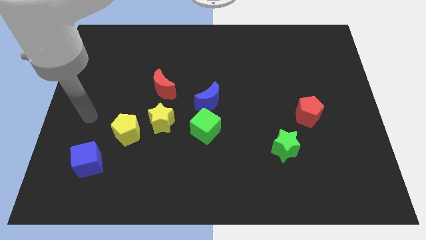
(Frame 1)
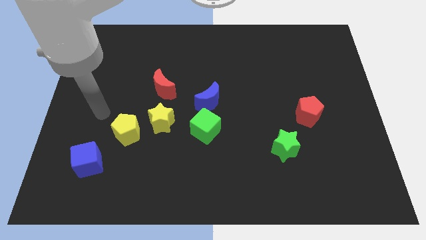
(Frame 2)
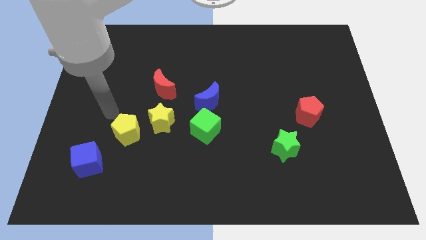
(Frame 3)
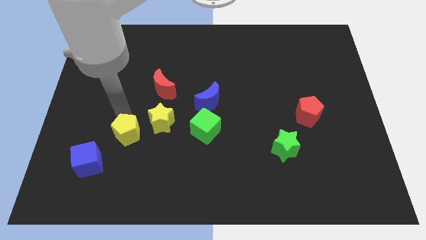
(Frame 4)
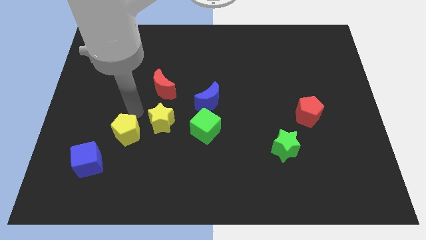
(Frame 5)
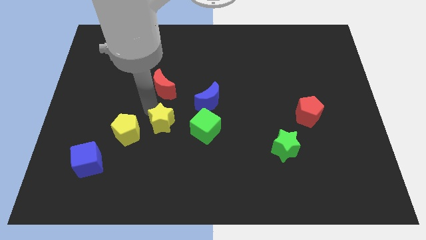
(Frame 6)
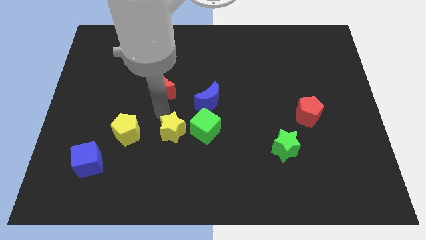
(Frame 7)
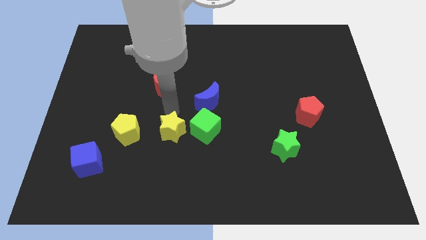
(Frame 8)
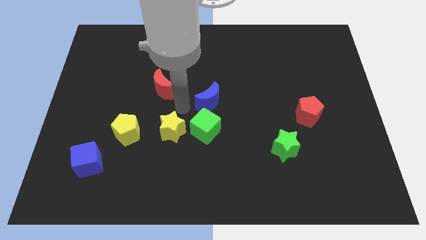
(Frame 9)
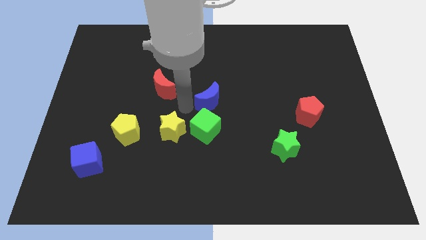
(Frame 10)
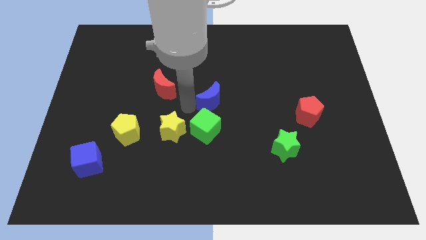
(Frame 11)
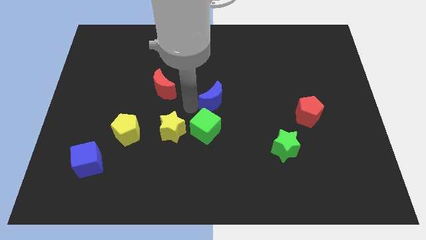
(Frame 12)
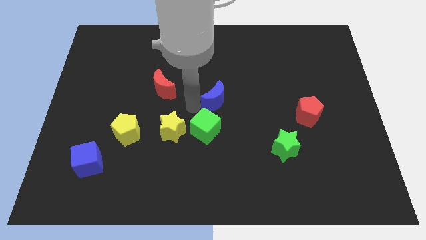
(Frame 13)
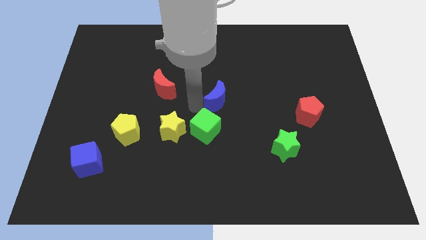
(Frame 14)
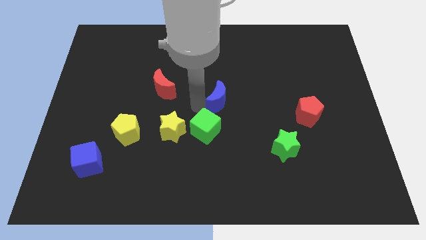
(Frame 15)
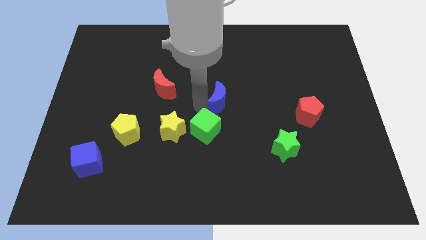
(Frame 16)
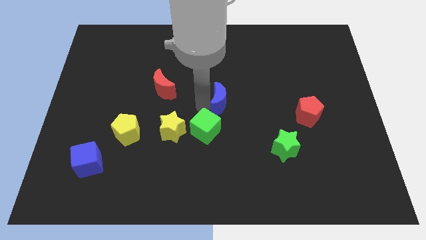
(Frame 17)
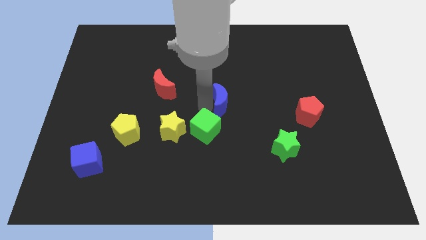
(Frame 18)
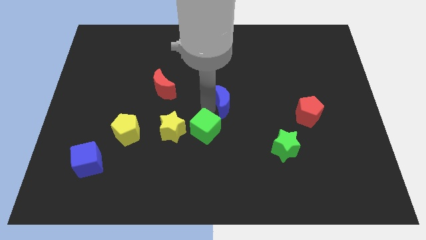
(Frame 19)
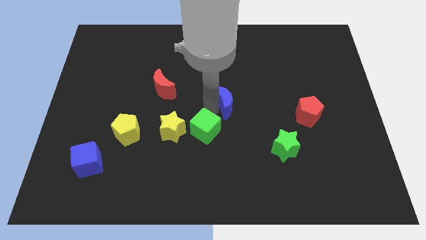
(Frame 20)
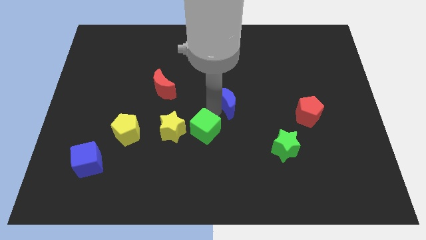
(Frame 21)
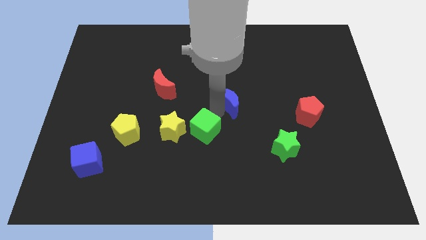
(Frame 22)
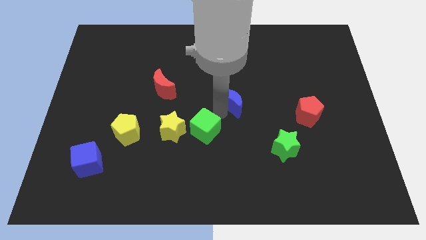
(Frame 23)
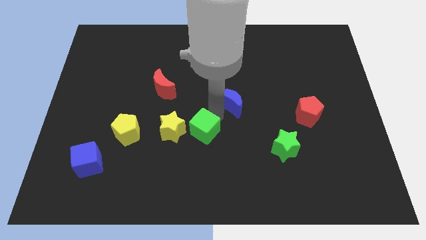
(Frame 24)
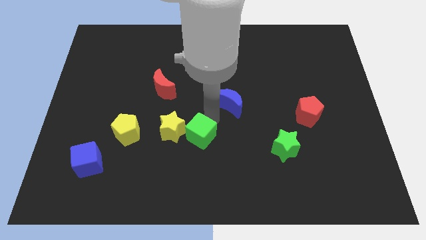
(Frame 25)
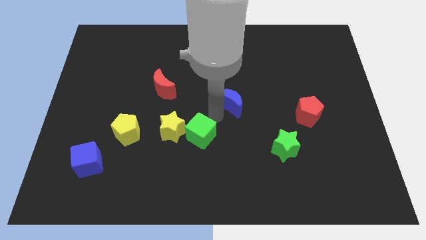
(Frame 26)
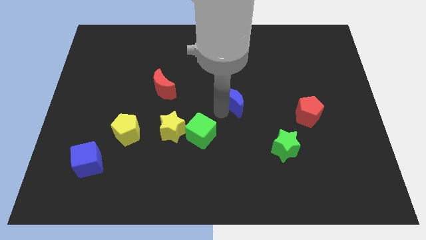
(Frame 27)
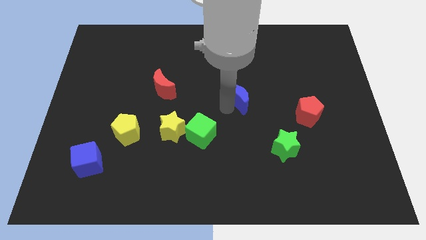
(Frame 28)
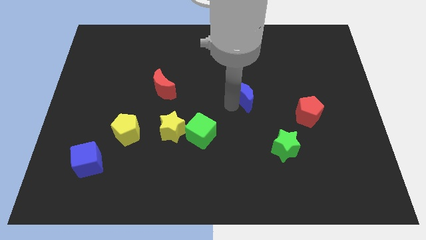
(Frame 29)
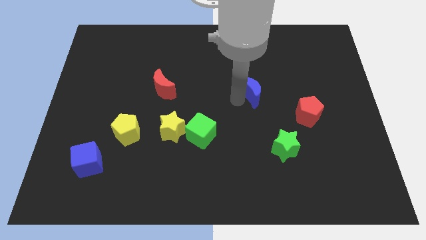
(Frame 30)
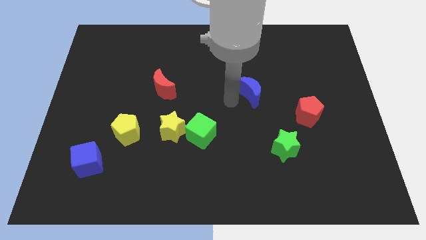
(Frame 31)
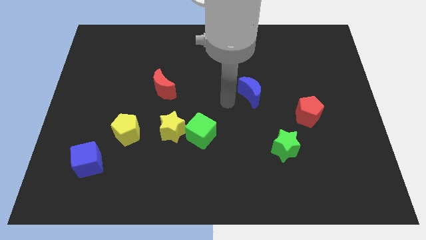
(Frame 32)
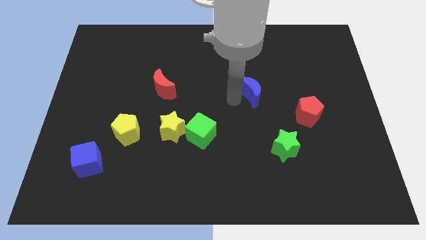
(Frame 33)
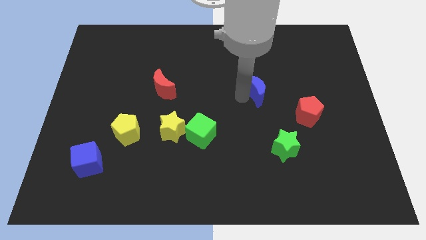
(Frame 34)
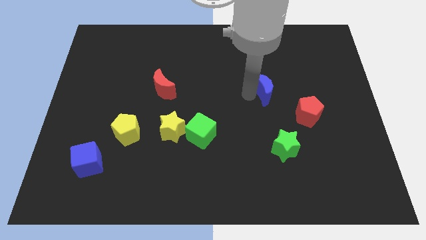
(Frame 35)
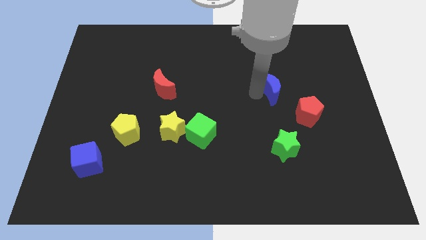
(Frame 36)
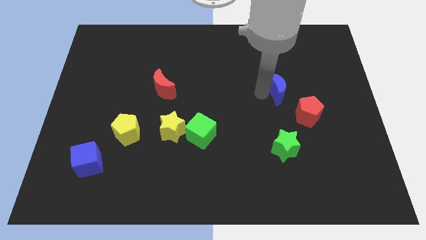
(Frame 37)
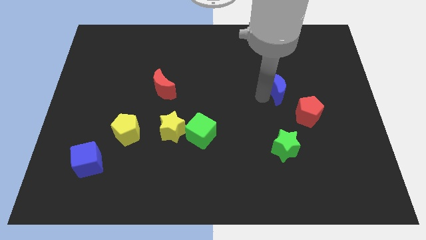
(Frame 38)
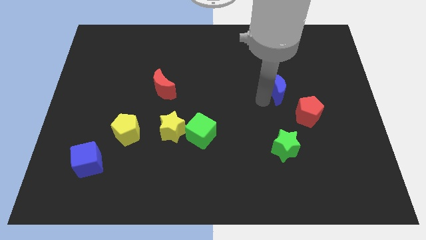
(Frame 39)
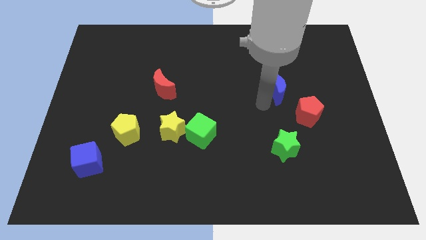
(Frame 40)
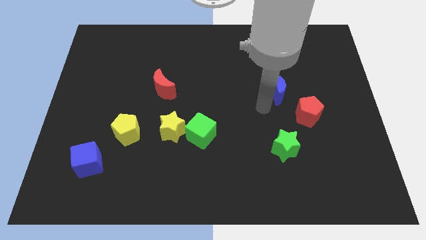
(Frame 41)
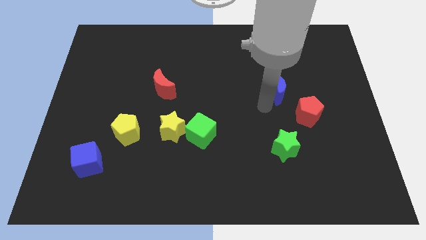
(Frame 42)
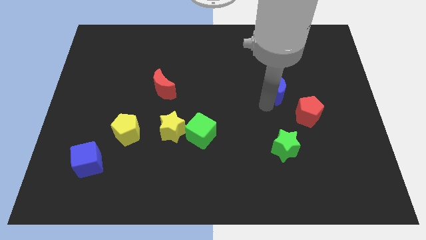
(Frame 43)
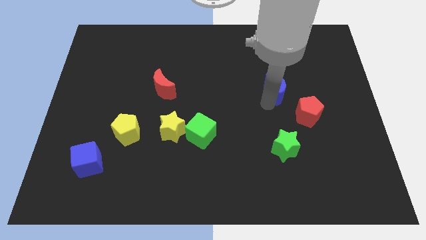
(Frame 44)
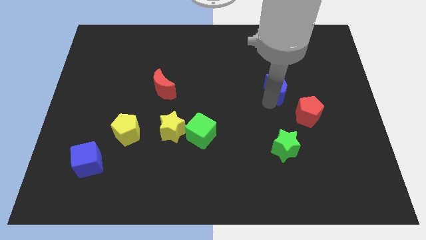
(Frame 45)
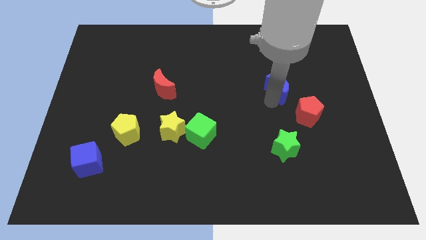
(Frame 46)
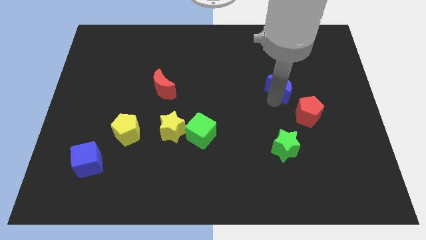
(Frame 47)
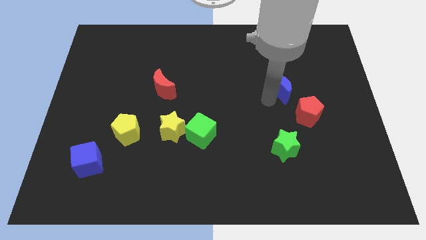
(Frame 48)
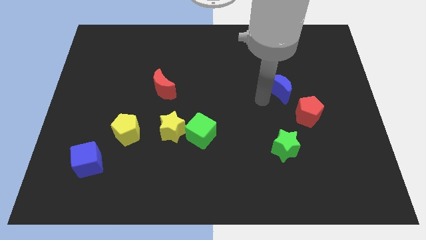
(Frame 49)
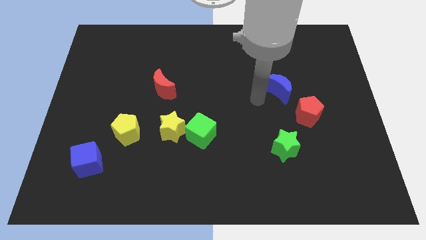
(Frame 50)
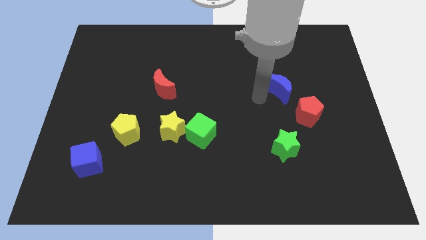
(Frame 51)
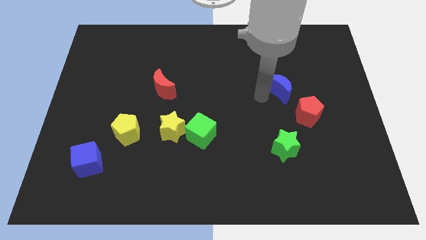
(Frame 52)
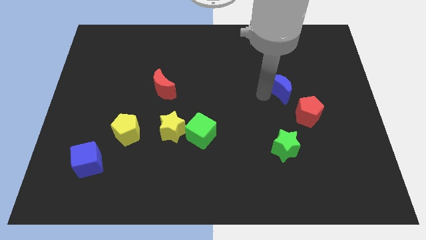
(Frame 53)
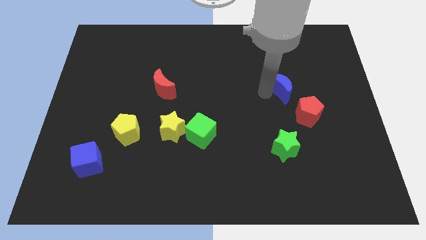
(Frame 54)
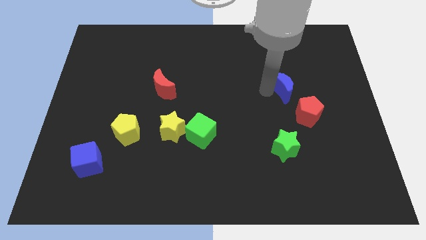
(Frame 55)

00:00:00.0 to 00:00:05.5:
slide the blue moon to the top of the red pentagon

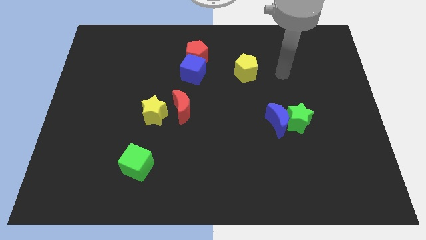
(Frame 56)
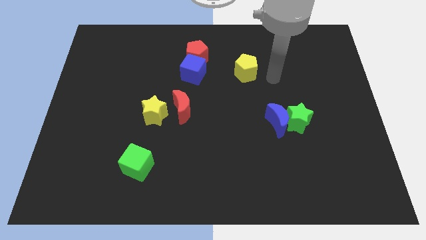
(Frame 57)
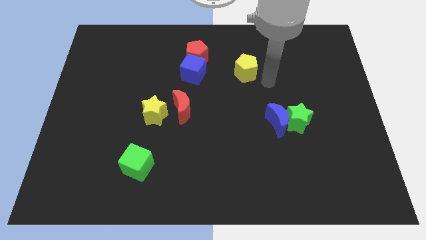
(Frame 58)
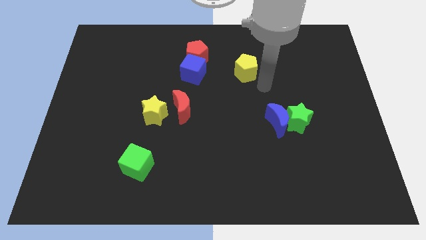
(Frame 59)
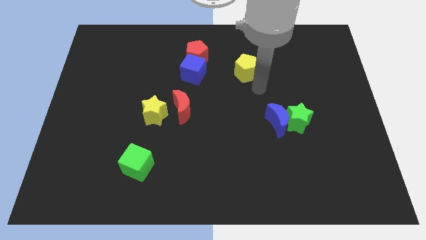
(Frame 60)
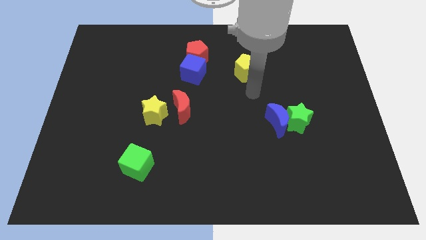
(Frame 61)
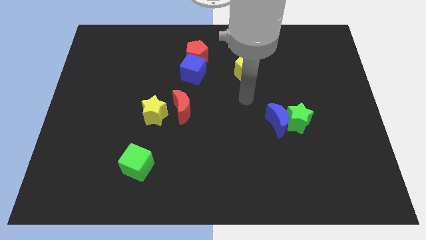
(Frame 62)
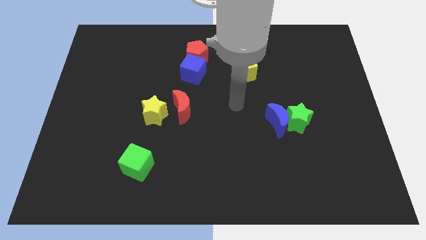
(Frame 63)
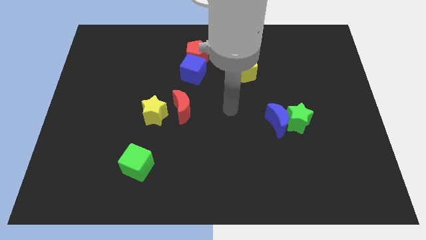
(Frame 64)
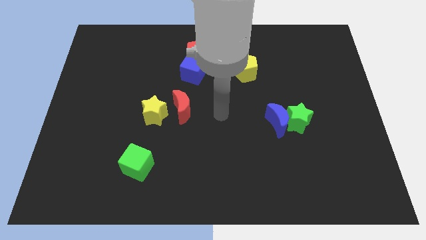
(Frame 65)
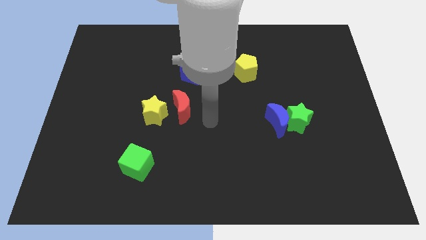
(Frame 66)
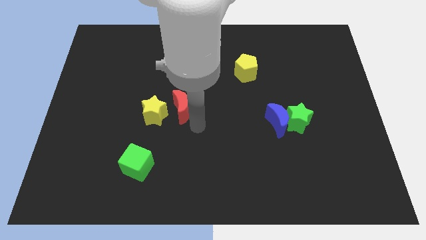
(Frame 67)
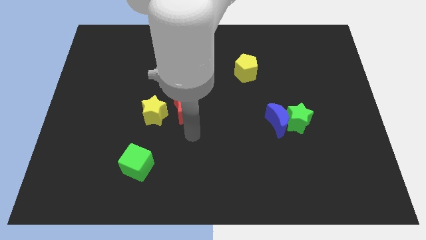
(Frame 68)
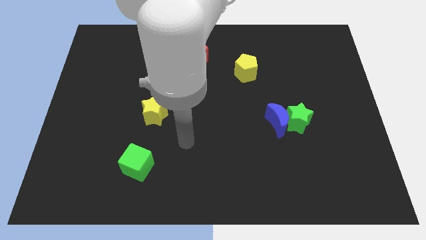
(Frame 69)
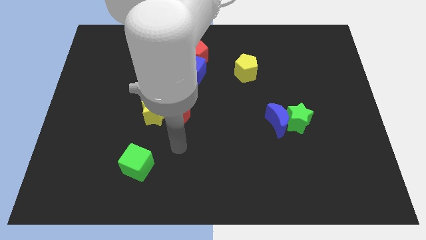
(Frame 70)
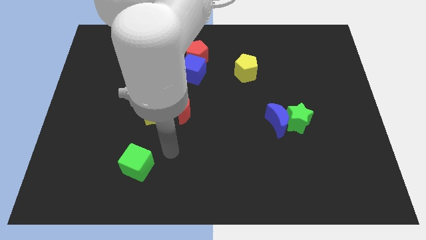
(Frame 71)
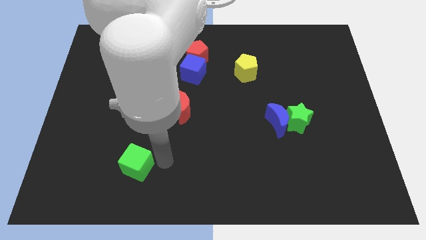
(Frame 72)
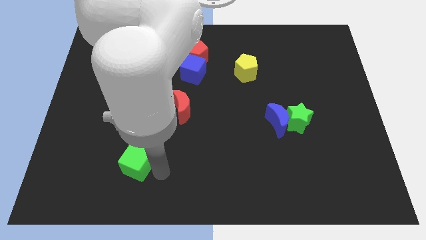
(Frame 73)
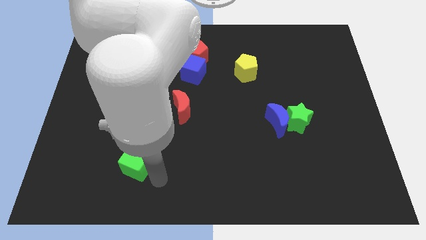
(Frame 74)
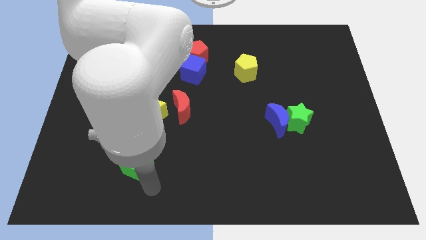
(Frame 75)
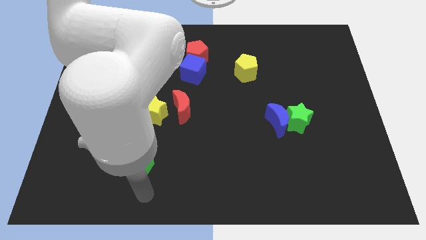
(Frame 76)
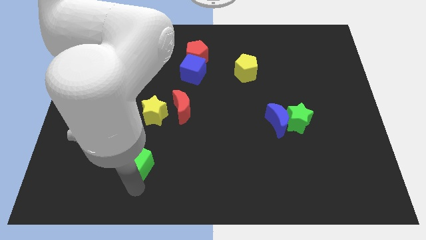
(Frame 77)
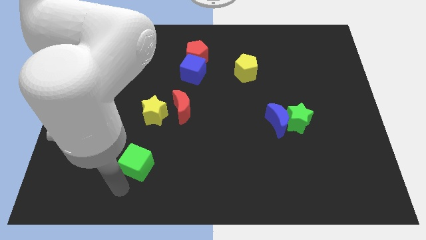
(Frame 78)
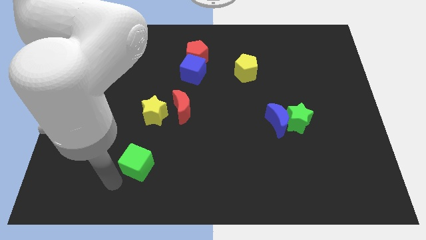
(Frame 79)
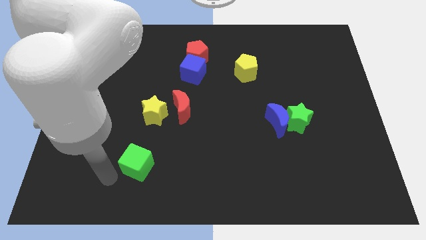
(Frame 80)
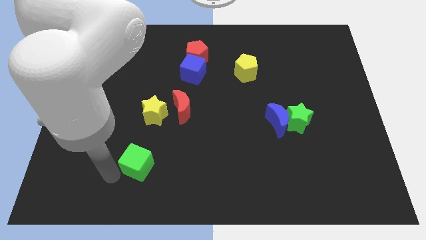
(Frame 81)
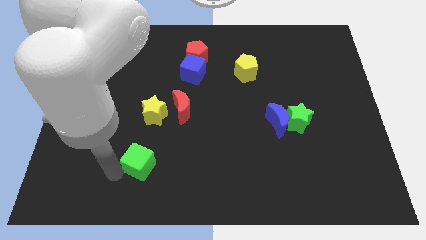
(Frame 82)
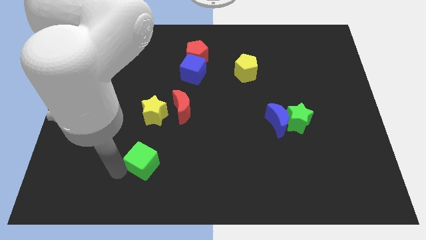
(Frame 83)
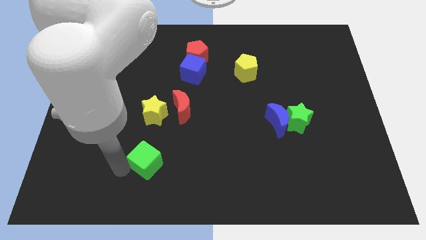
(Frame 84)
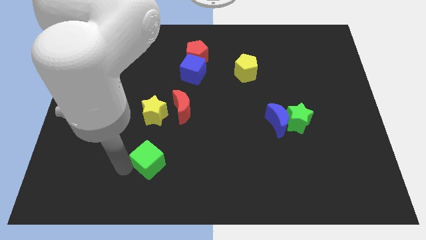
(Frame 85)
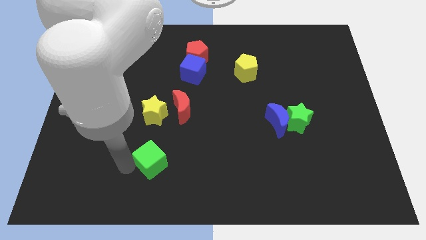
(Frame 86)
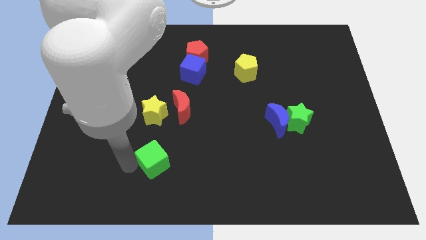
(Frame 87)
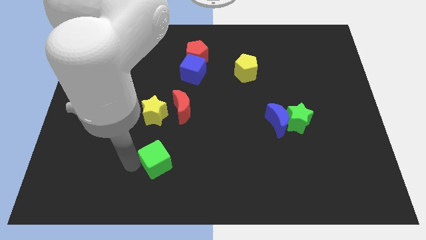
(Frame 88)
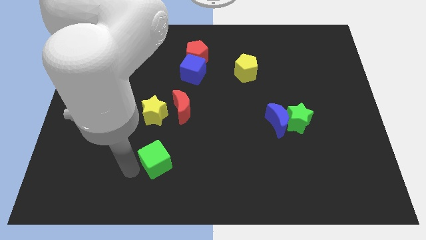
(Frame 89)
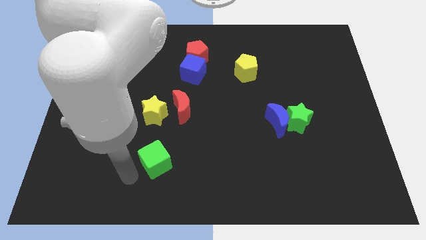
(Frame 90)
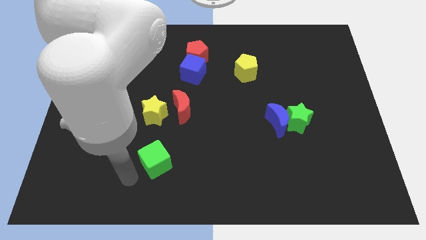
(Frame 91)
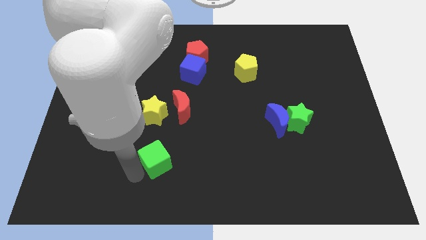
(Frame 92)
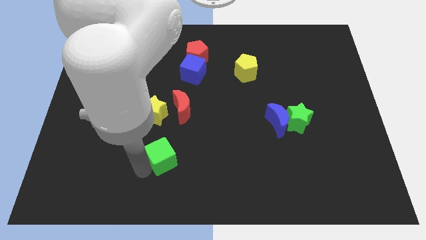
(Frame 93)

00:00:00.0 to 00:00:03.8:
move the green cube below the red moon
